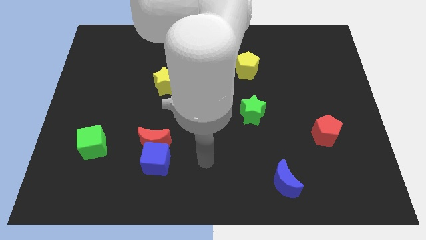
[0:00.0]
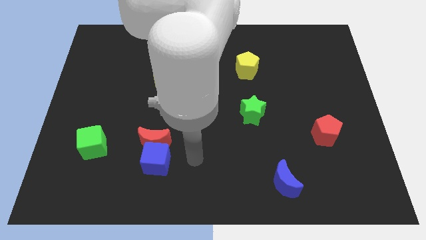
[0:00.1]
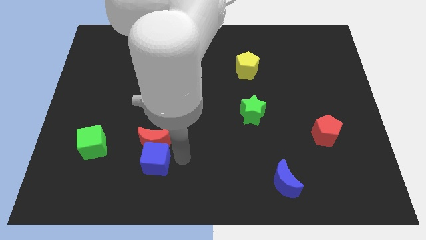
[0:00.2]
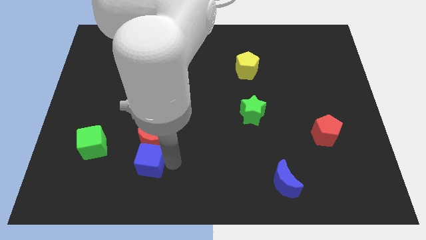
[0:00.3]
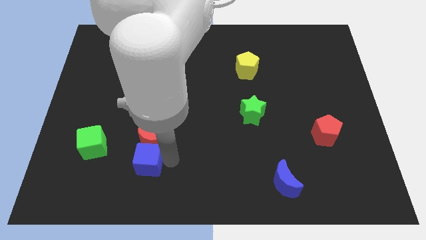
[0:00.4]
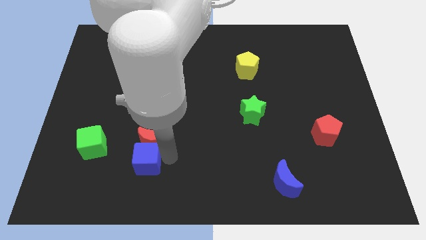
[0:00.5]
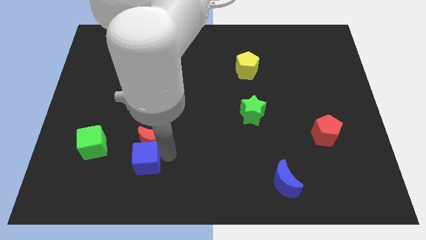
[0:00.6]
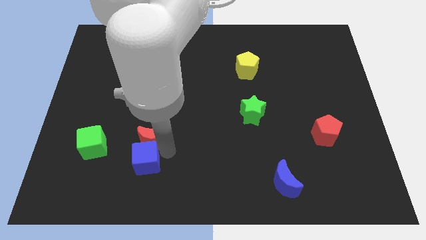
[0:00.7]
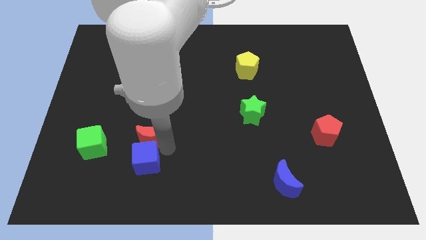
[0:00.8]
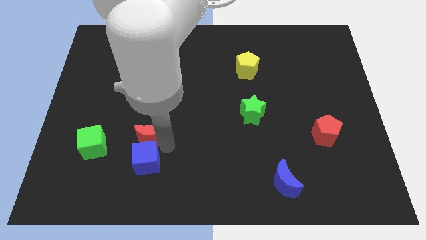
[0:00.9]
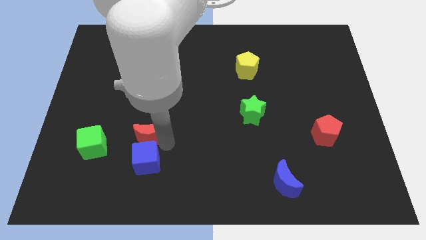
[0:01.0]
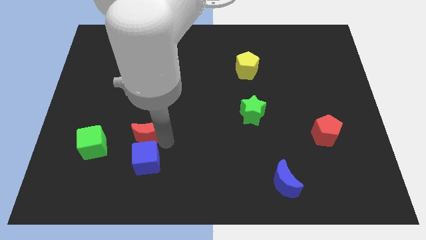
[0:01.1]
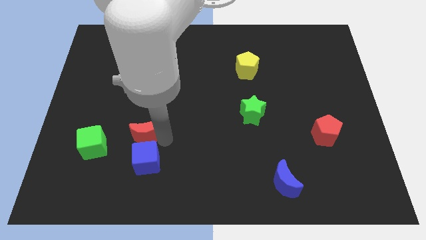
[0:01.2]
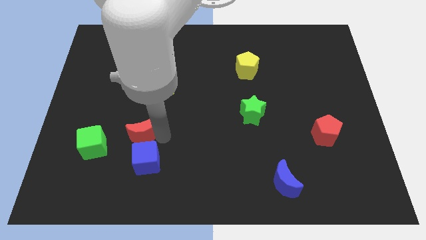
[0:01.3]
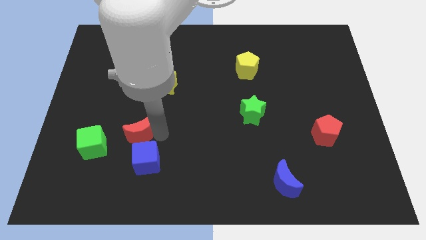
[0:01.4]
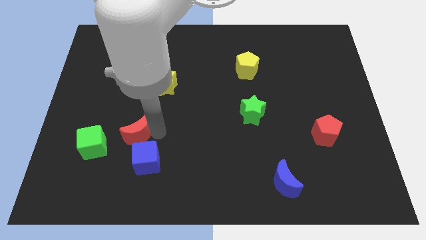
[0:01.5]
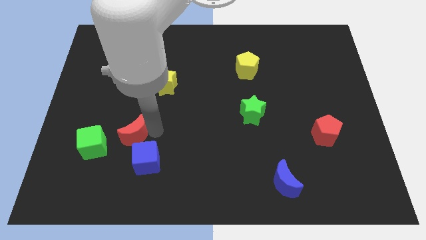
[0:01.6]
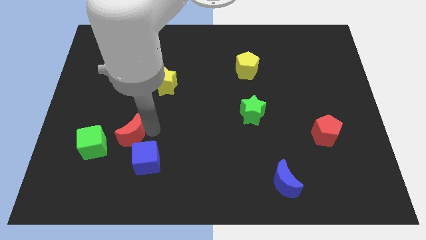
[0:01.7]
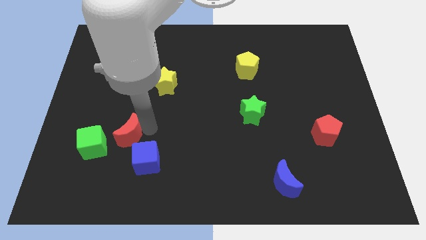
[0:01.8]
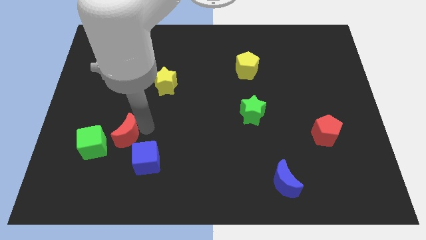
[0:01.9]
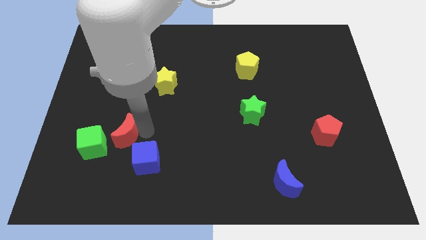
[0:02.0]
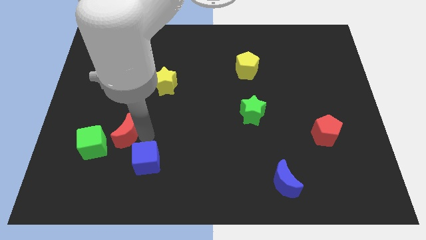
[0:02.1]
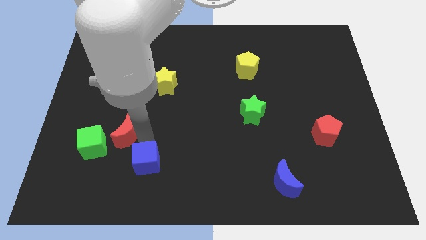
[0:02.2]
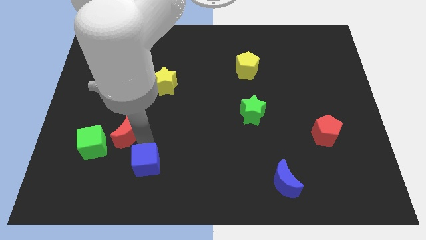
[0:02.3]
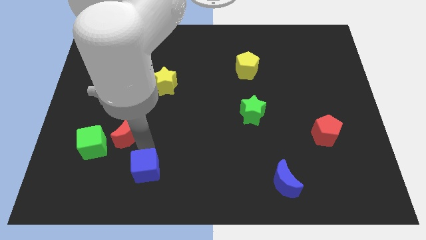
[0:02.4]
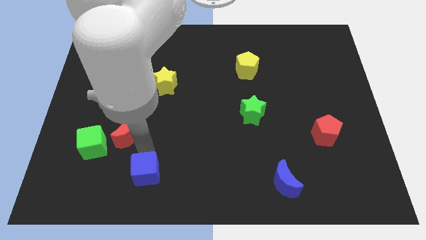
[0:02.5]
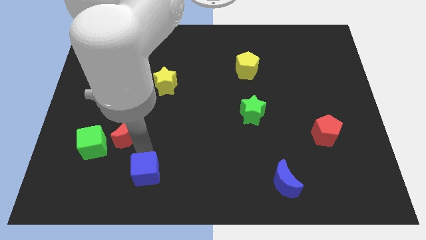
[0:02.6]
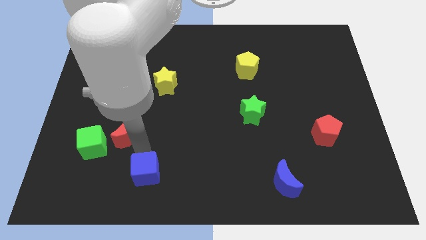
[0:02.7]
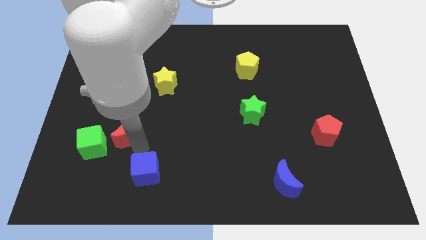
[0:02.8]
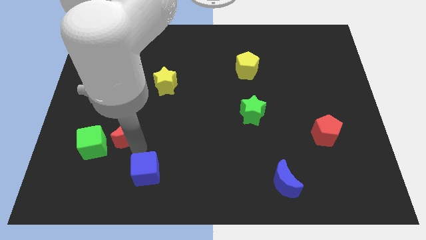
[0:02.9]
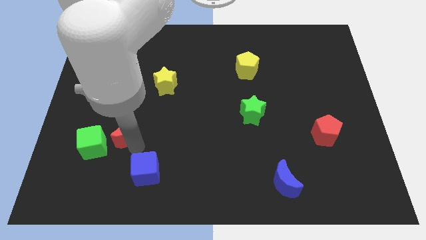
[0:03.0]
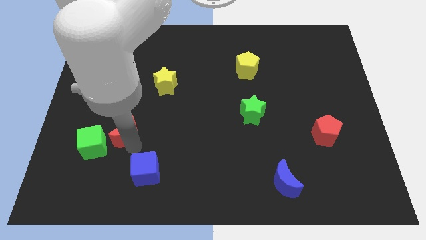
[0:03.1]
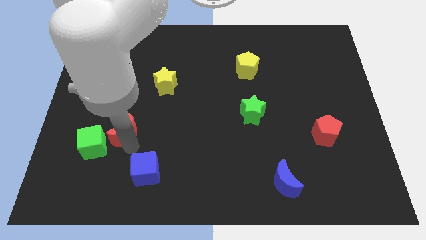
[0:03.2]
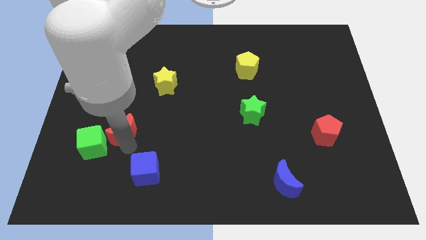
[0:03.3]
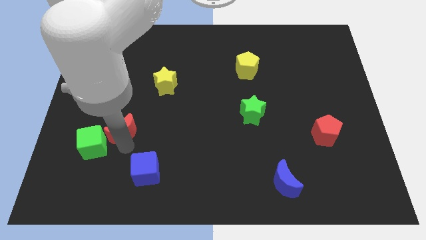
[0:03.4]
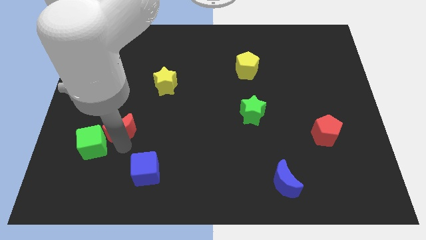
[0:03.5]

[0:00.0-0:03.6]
slightly slide the red moon upwards and left

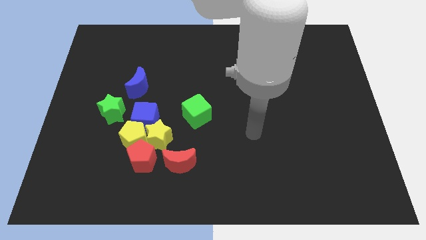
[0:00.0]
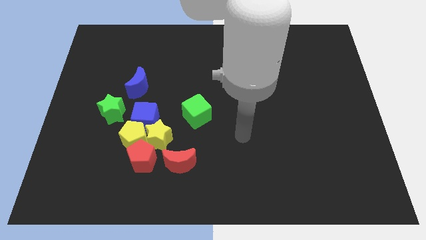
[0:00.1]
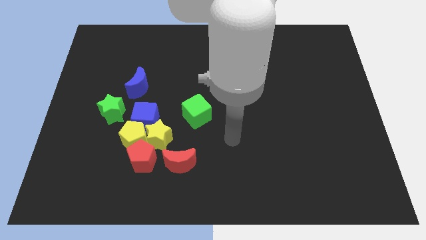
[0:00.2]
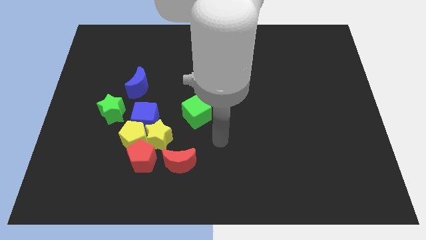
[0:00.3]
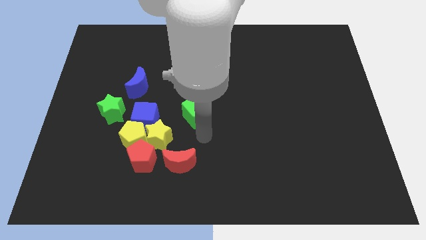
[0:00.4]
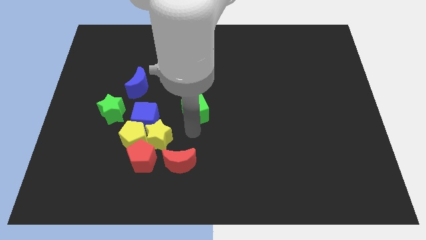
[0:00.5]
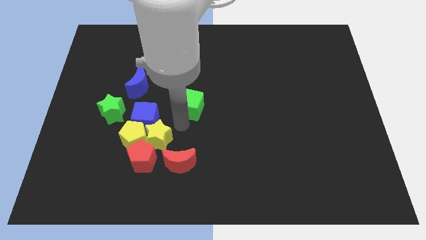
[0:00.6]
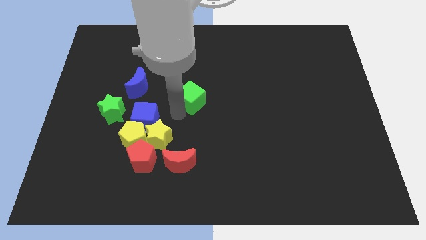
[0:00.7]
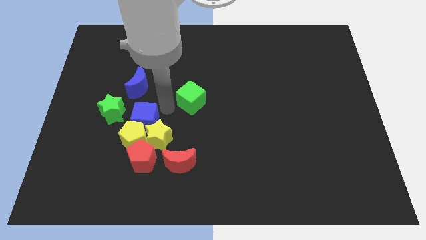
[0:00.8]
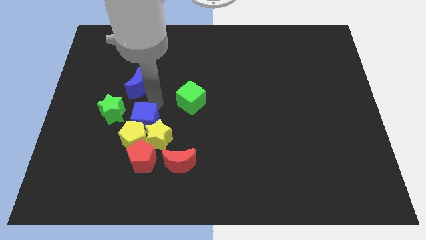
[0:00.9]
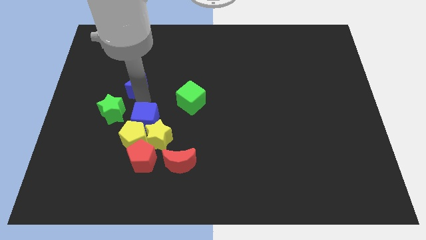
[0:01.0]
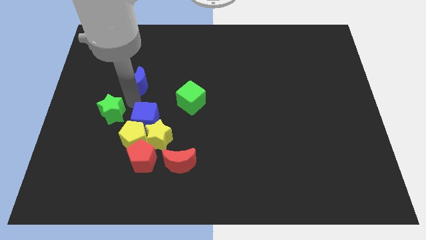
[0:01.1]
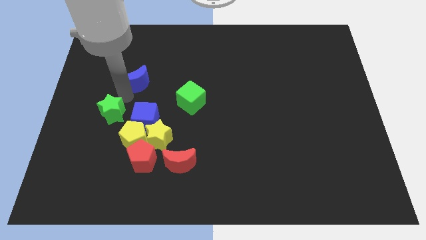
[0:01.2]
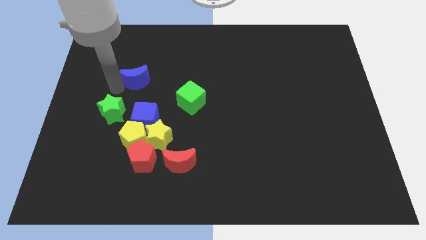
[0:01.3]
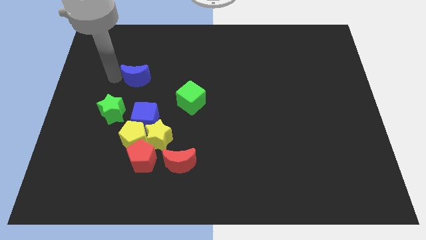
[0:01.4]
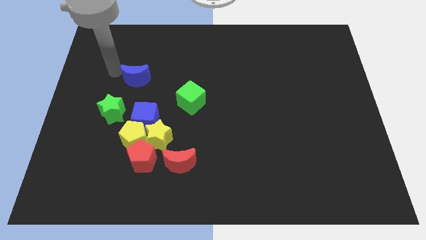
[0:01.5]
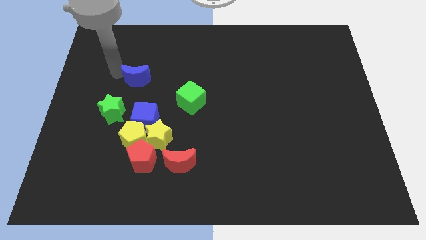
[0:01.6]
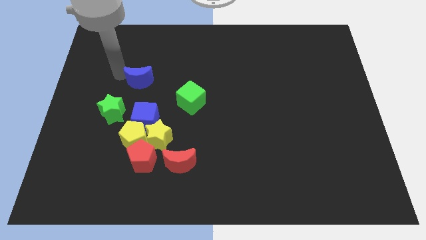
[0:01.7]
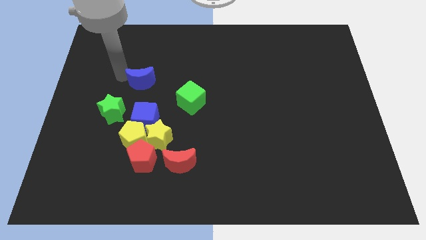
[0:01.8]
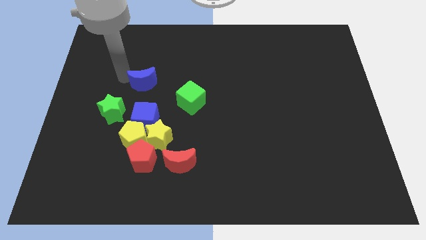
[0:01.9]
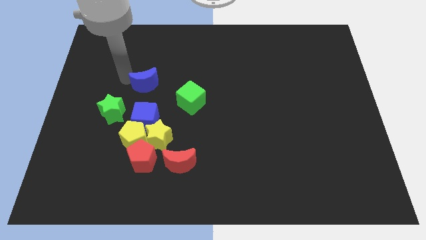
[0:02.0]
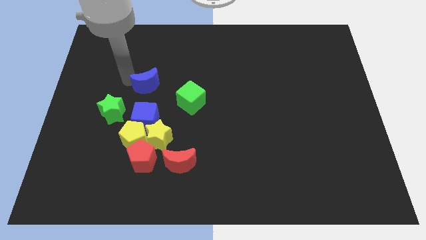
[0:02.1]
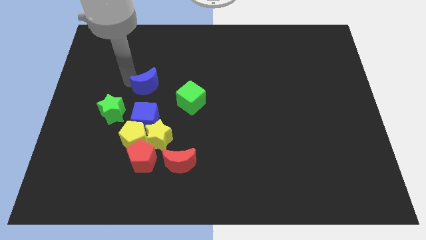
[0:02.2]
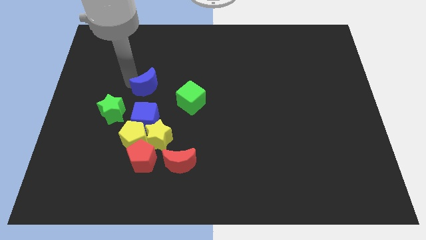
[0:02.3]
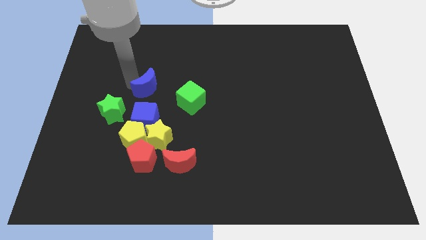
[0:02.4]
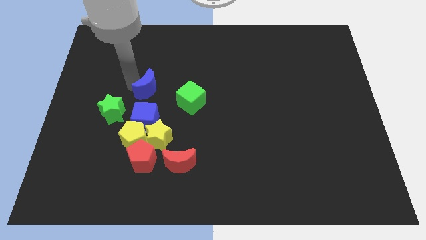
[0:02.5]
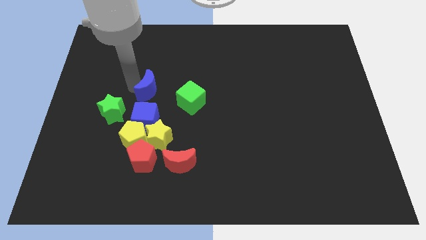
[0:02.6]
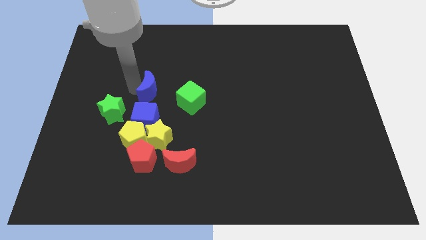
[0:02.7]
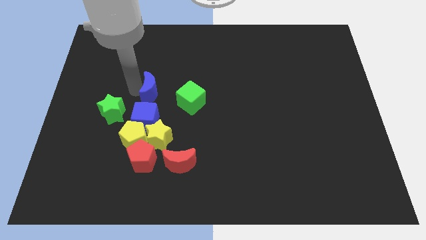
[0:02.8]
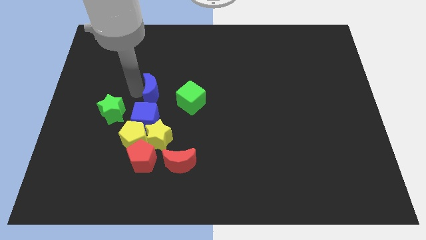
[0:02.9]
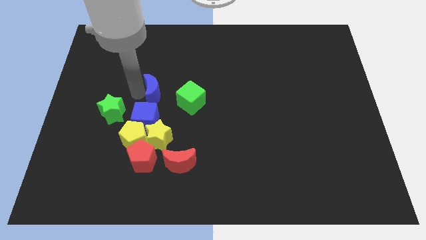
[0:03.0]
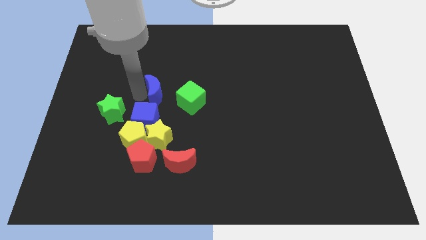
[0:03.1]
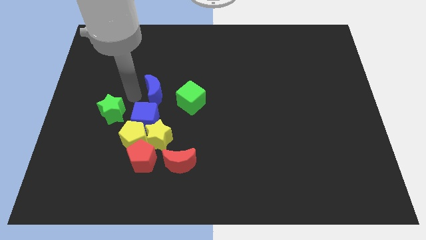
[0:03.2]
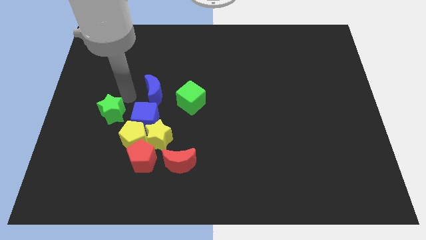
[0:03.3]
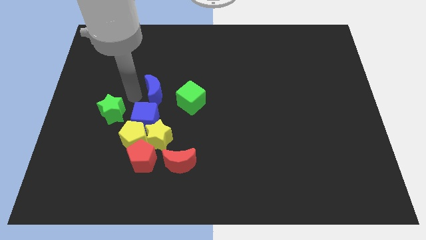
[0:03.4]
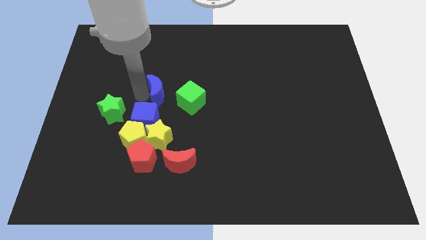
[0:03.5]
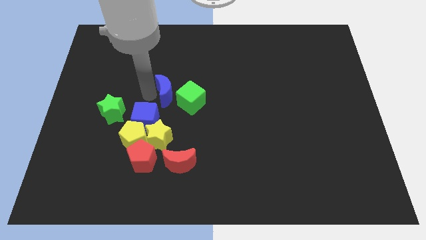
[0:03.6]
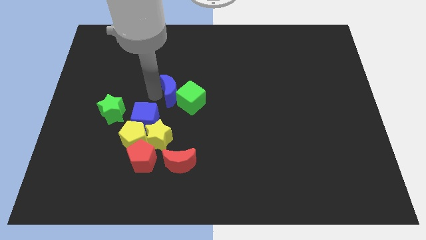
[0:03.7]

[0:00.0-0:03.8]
move the blue moon somewhat right

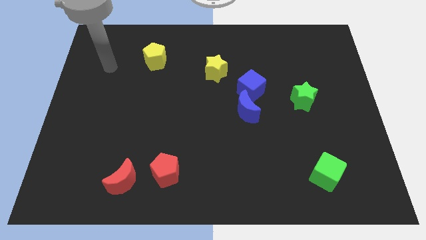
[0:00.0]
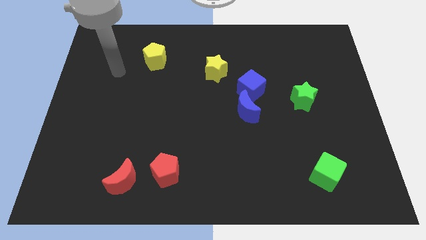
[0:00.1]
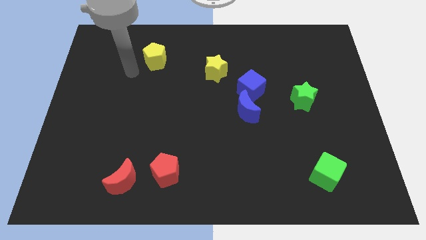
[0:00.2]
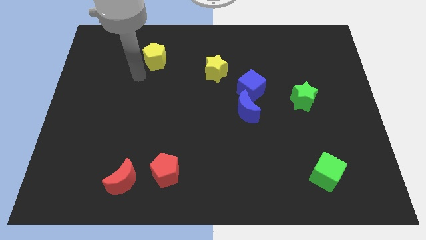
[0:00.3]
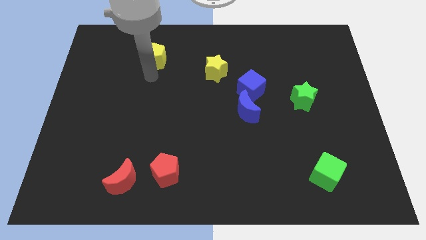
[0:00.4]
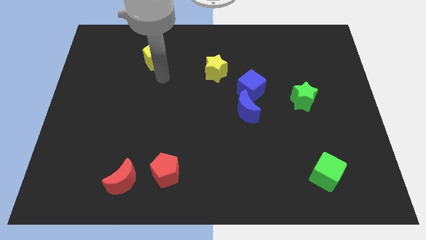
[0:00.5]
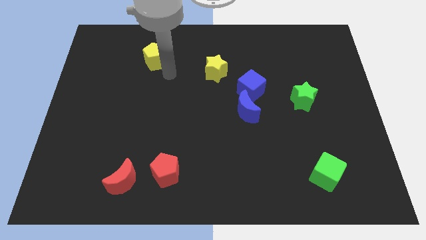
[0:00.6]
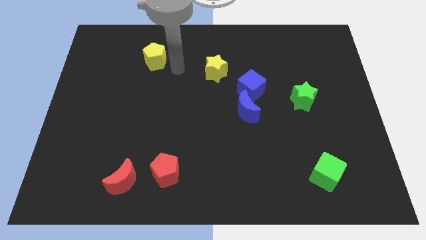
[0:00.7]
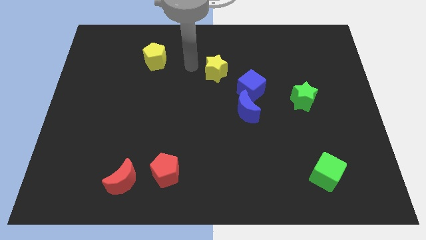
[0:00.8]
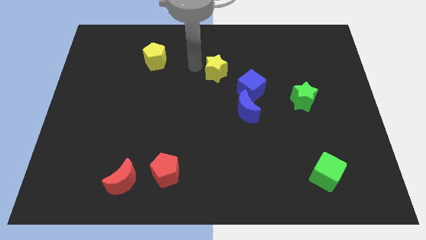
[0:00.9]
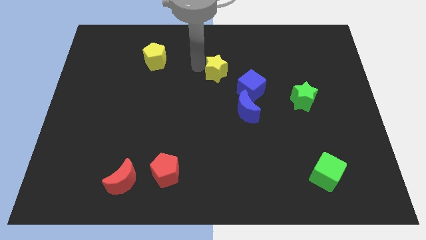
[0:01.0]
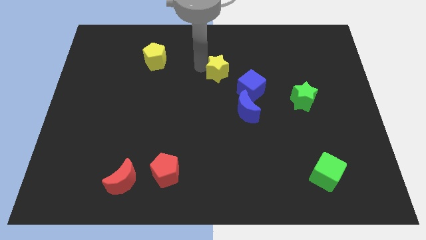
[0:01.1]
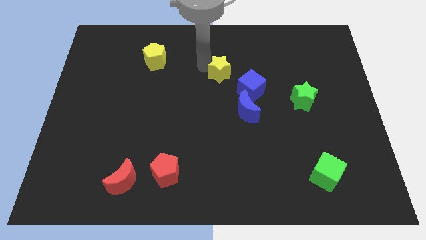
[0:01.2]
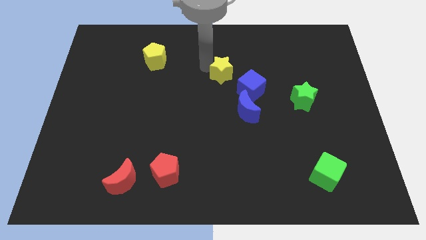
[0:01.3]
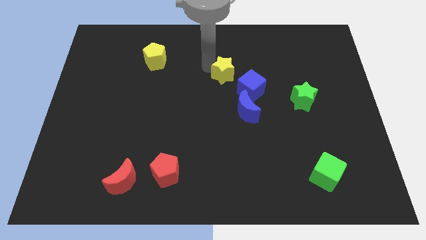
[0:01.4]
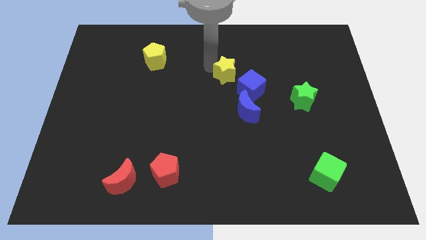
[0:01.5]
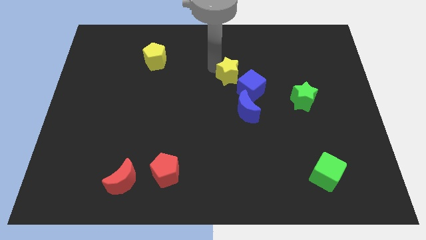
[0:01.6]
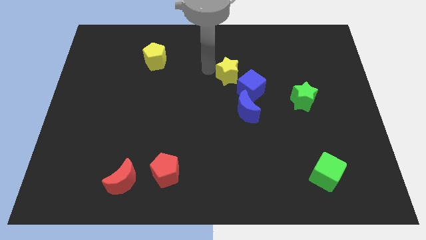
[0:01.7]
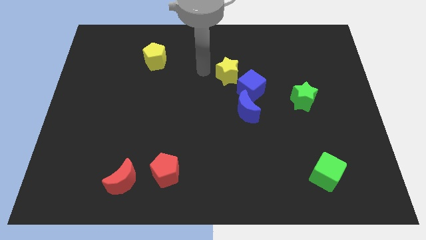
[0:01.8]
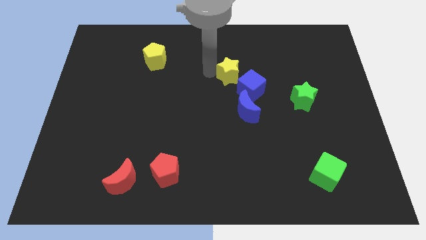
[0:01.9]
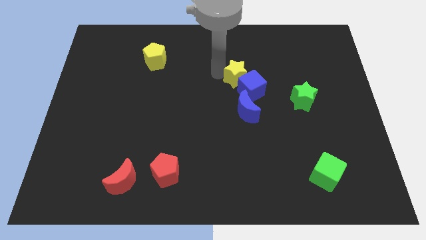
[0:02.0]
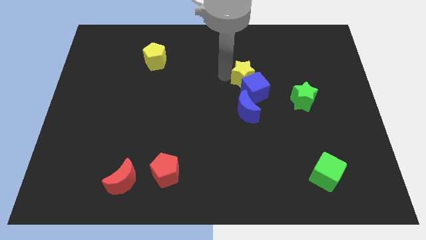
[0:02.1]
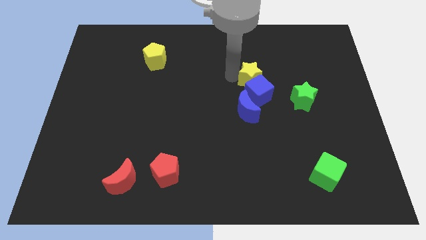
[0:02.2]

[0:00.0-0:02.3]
push the yellow star downwards and to the right a little
